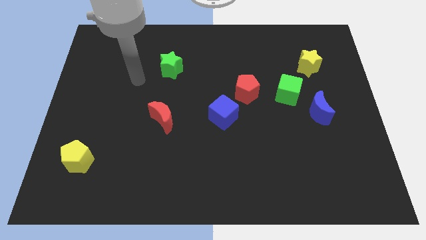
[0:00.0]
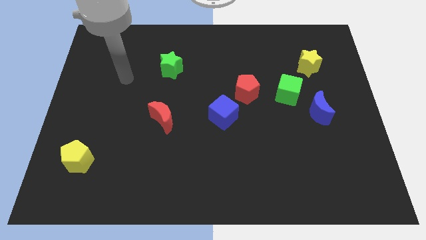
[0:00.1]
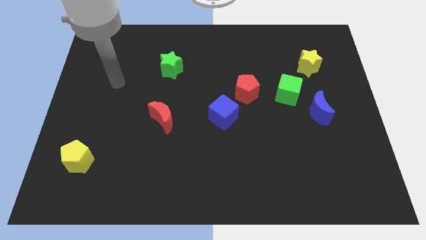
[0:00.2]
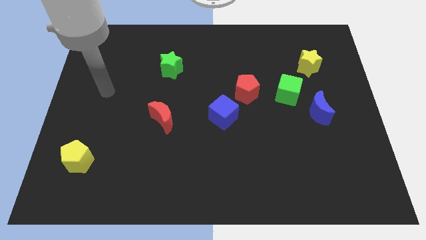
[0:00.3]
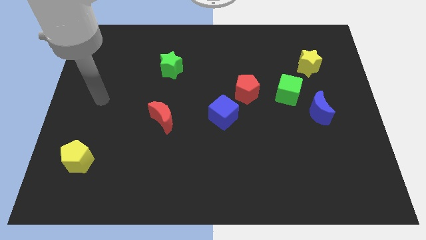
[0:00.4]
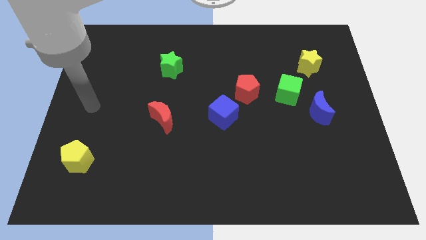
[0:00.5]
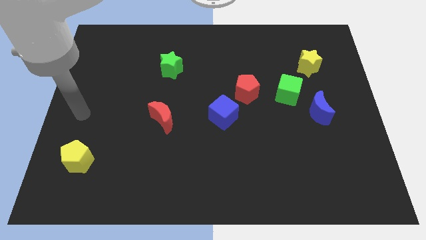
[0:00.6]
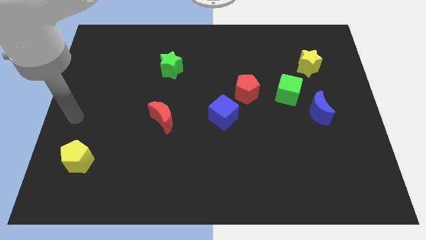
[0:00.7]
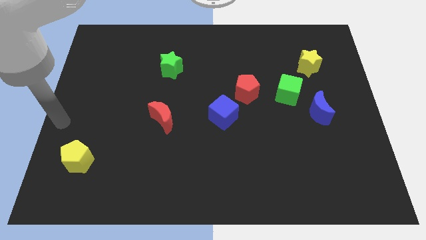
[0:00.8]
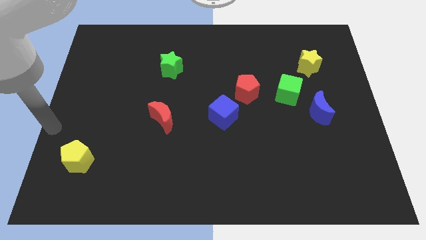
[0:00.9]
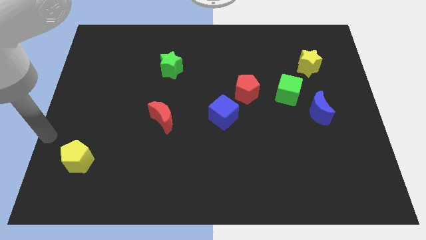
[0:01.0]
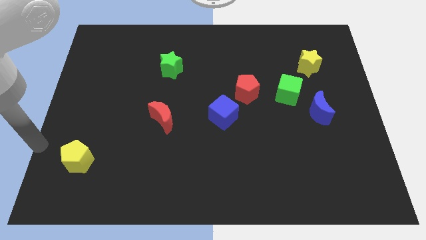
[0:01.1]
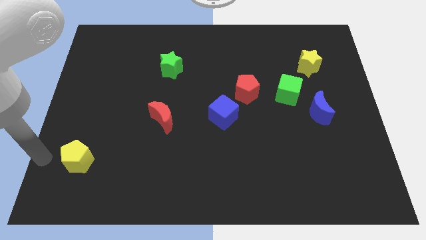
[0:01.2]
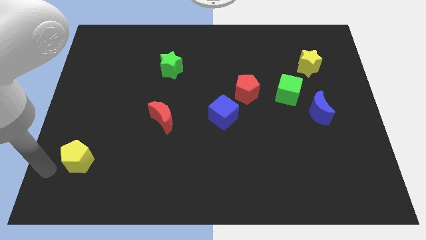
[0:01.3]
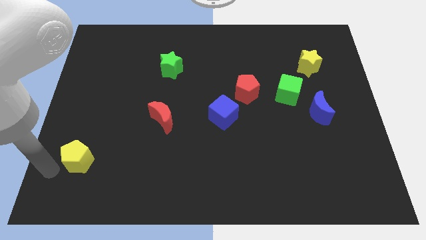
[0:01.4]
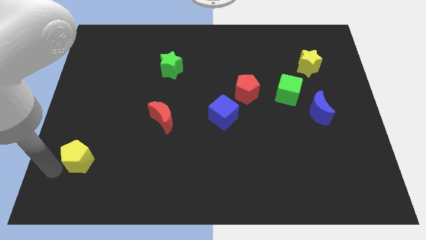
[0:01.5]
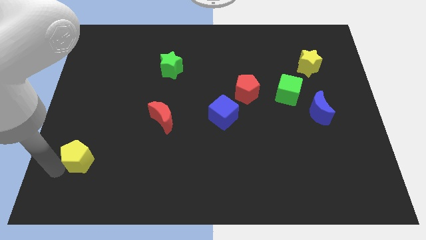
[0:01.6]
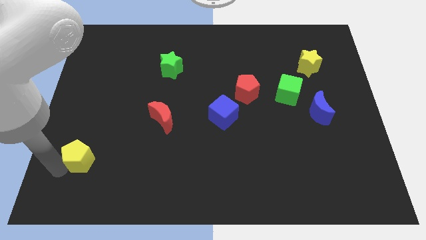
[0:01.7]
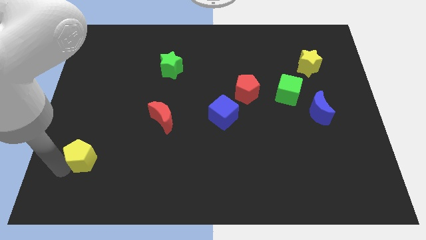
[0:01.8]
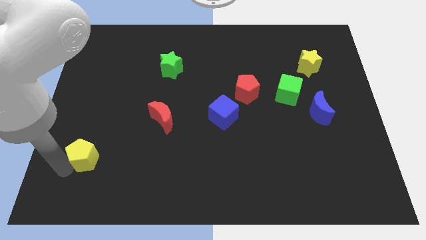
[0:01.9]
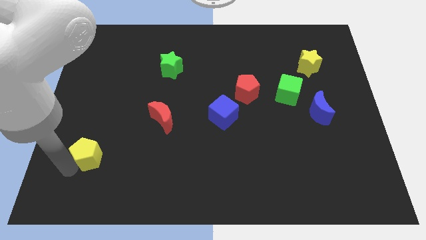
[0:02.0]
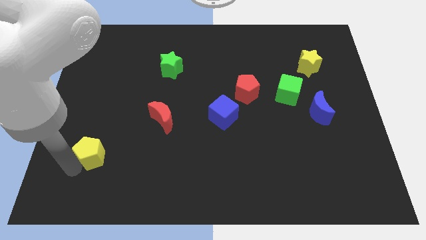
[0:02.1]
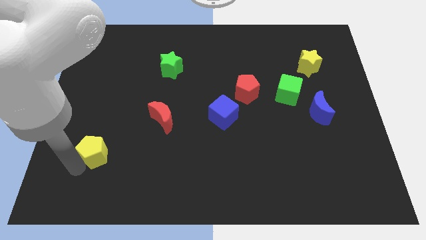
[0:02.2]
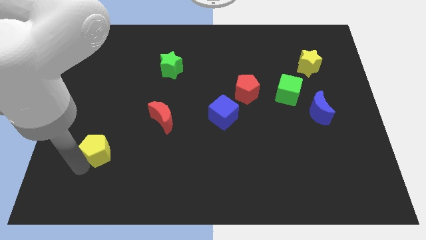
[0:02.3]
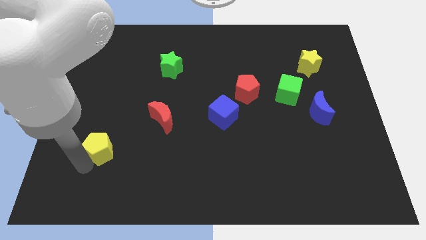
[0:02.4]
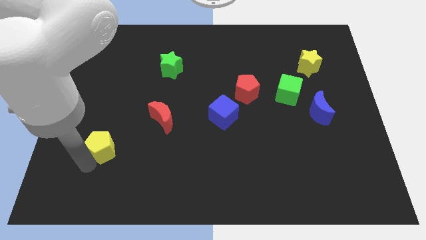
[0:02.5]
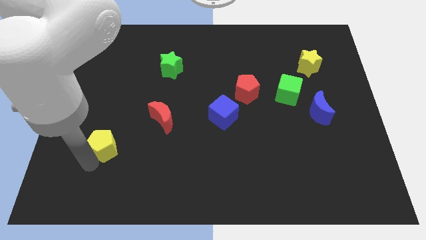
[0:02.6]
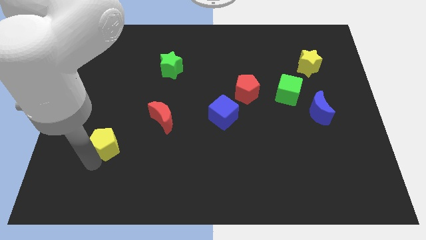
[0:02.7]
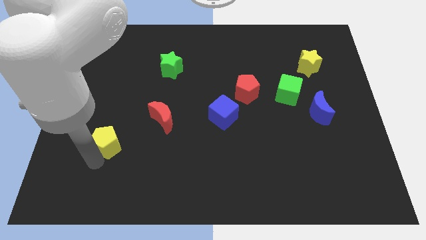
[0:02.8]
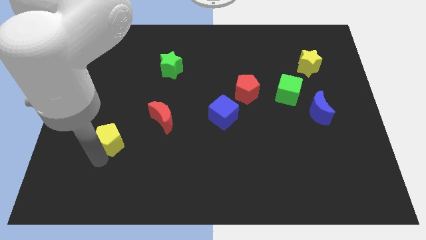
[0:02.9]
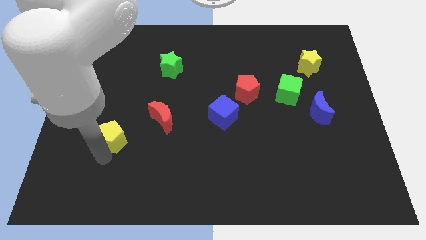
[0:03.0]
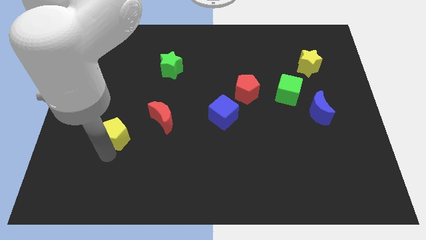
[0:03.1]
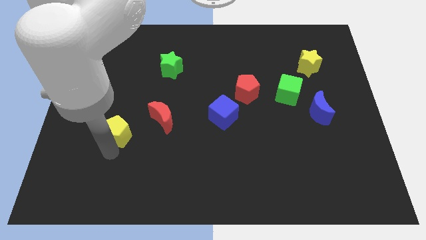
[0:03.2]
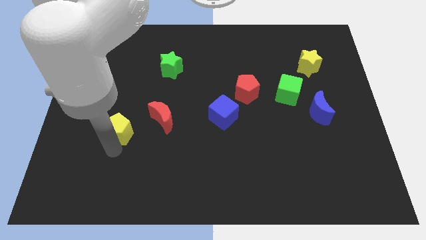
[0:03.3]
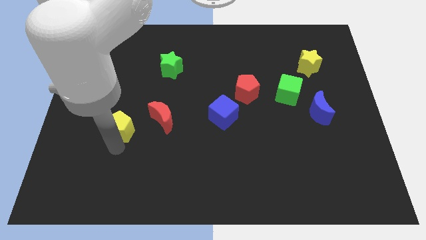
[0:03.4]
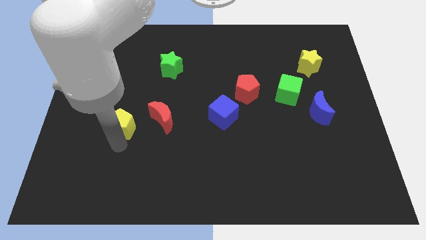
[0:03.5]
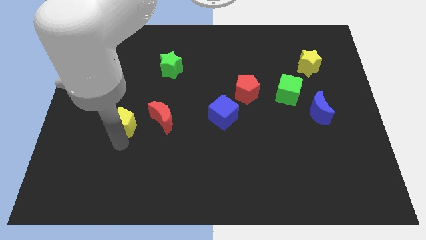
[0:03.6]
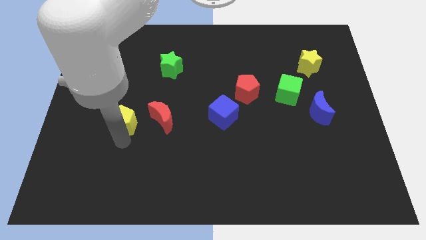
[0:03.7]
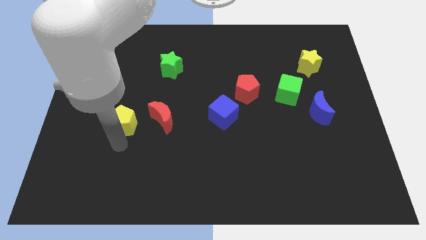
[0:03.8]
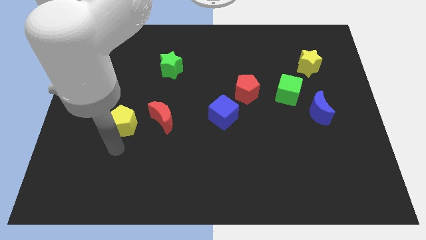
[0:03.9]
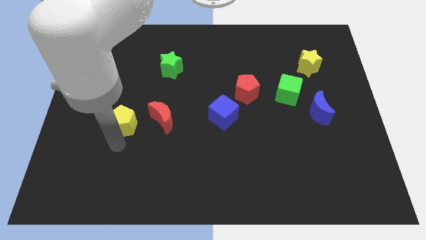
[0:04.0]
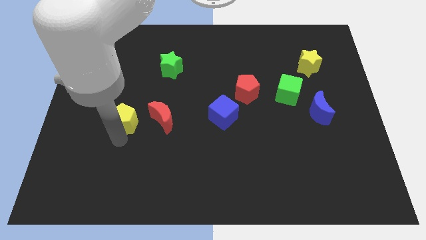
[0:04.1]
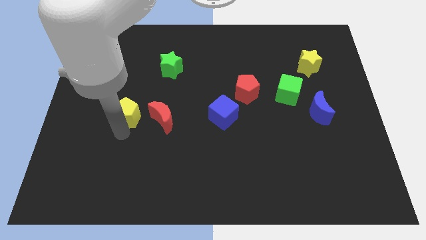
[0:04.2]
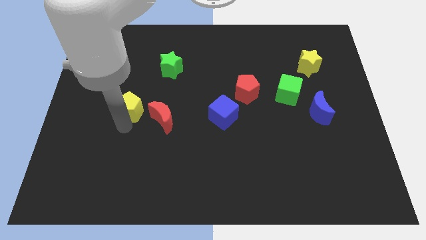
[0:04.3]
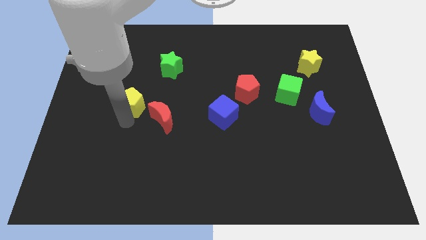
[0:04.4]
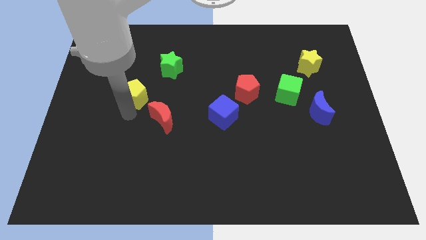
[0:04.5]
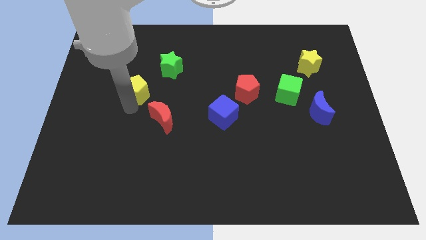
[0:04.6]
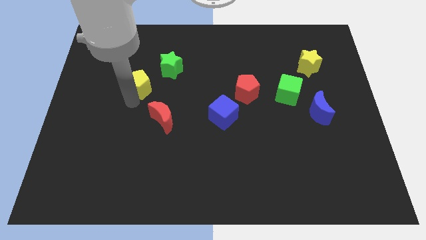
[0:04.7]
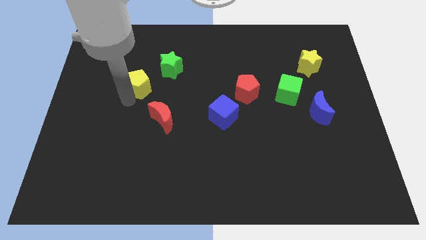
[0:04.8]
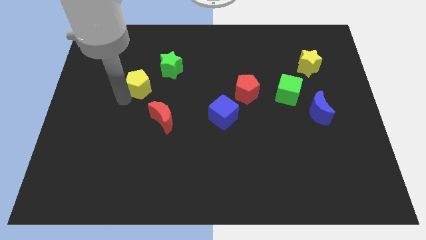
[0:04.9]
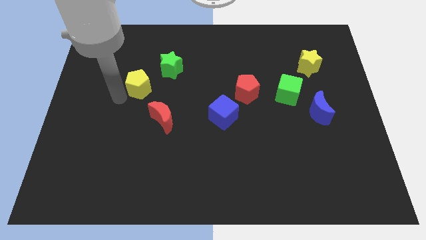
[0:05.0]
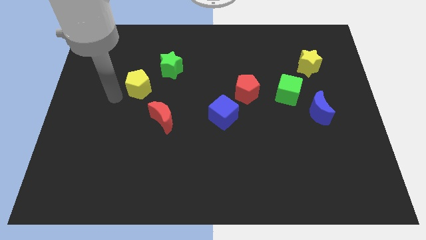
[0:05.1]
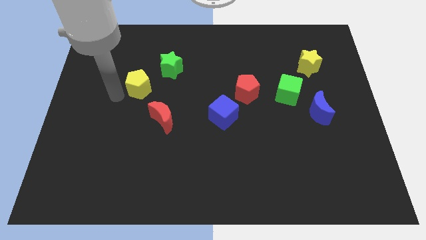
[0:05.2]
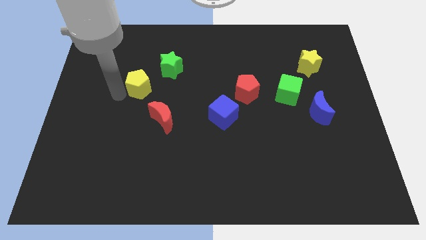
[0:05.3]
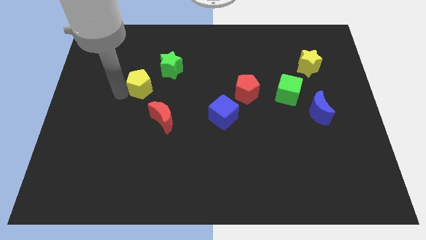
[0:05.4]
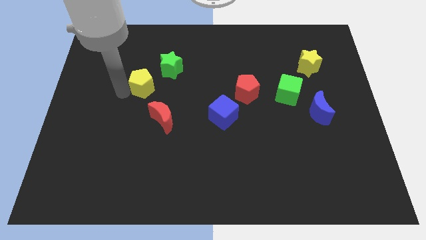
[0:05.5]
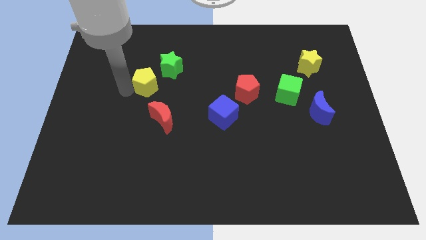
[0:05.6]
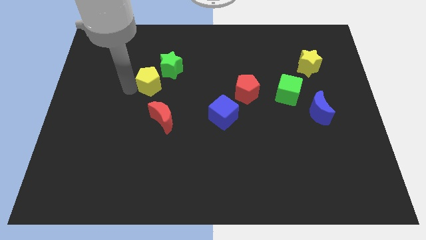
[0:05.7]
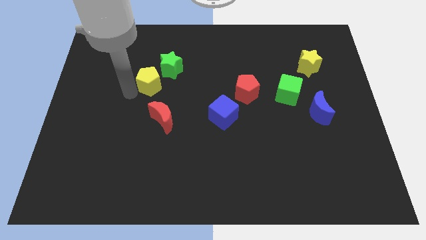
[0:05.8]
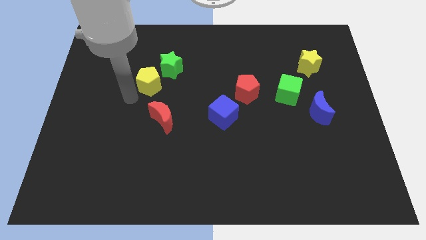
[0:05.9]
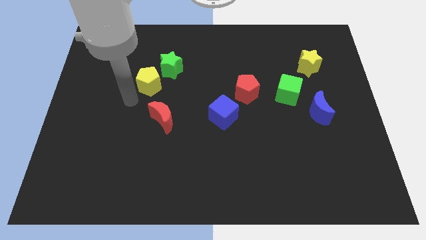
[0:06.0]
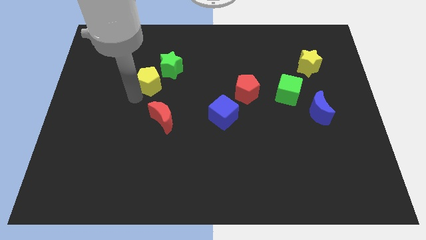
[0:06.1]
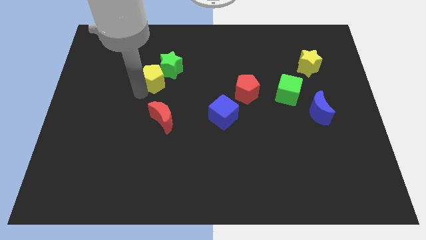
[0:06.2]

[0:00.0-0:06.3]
slide the yellow pentagon to the green star
